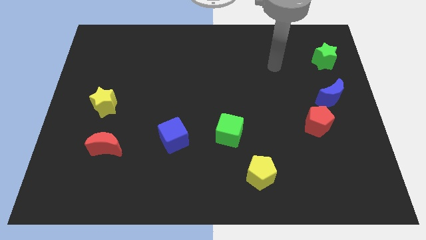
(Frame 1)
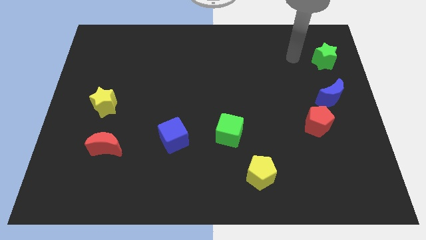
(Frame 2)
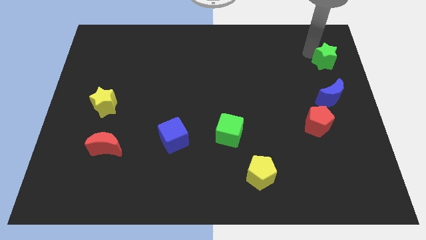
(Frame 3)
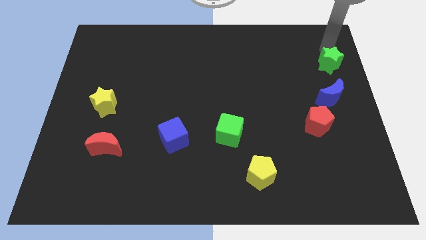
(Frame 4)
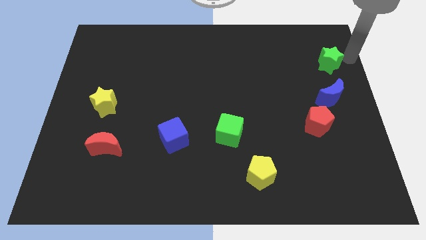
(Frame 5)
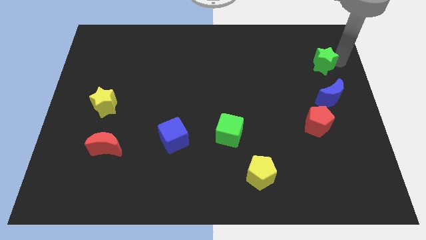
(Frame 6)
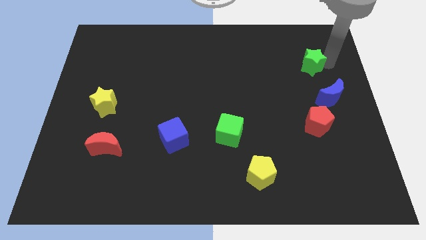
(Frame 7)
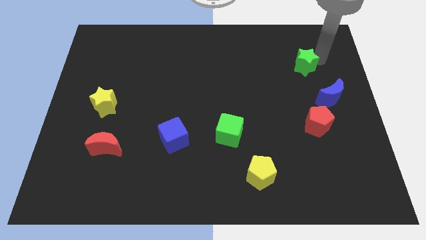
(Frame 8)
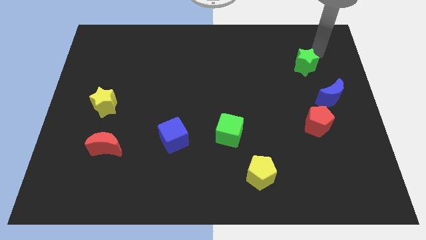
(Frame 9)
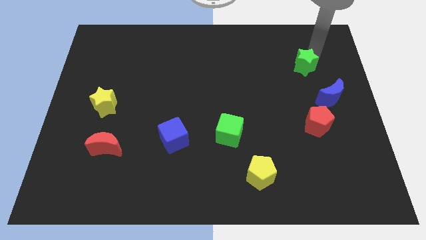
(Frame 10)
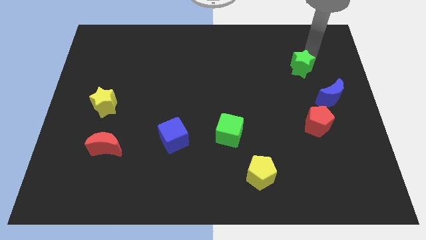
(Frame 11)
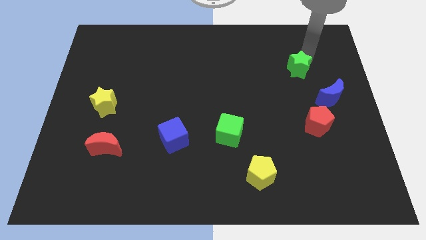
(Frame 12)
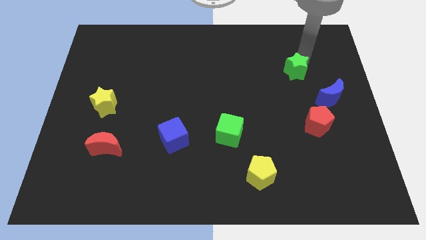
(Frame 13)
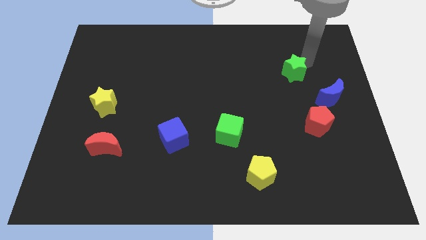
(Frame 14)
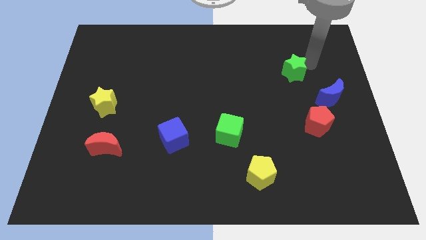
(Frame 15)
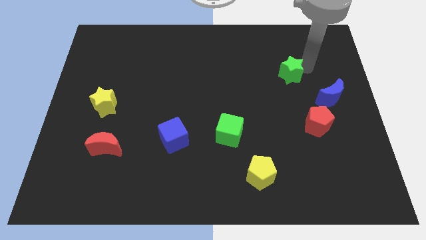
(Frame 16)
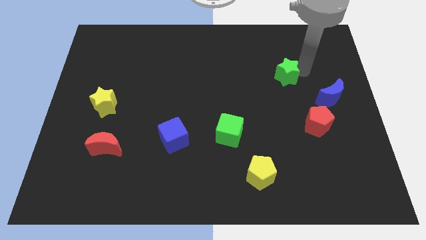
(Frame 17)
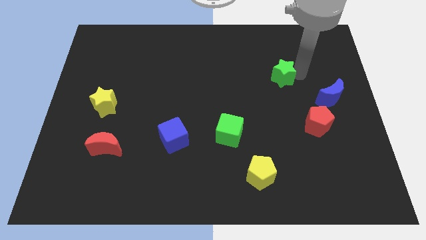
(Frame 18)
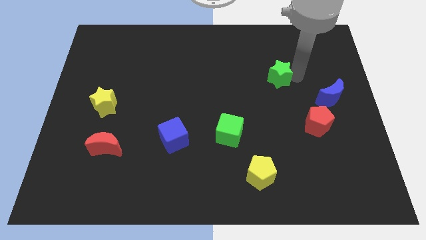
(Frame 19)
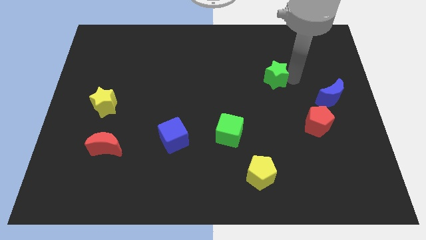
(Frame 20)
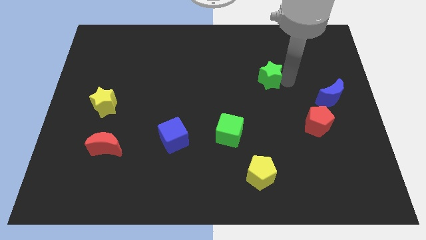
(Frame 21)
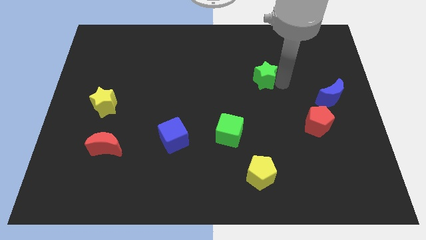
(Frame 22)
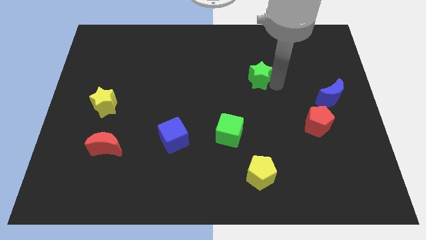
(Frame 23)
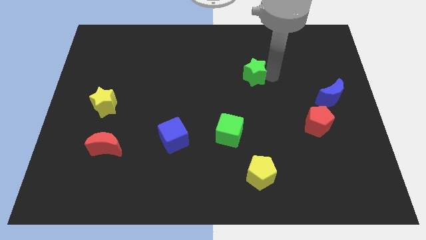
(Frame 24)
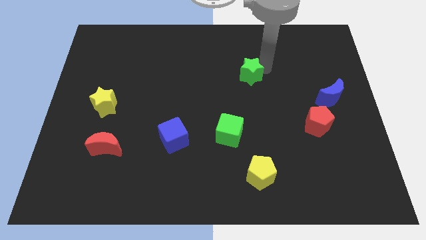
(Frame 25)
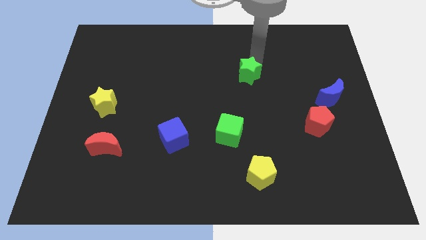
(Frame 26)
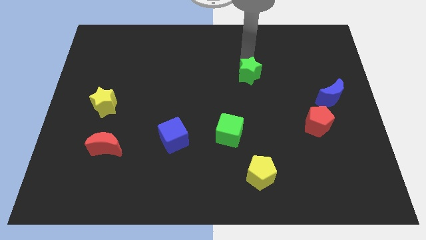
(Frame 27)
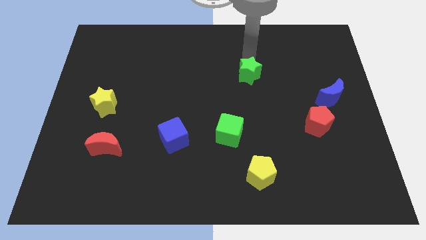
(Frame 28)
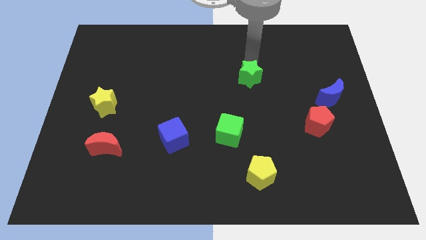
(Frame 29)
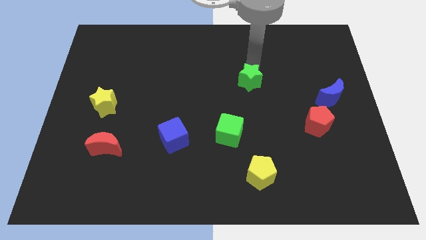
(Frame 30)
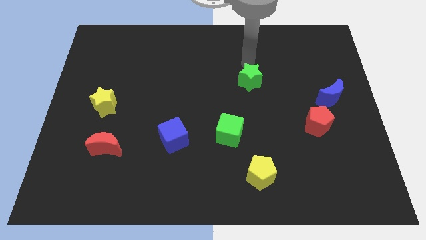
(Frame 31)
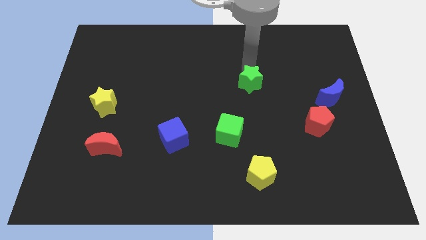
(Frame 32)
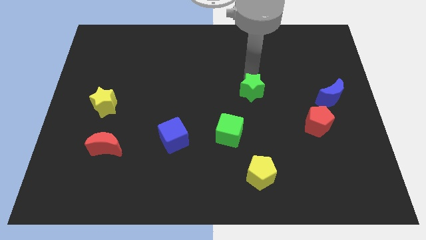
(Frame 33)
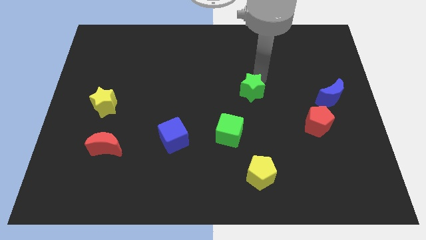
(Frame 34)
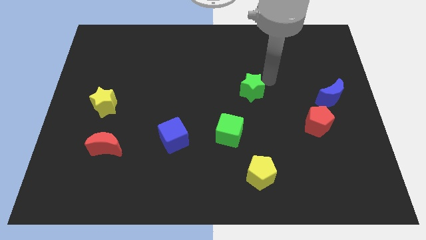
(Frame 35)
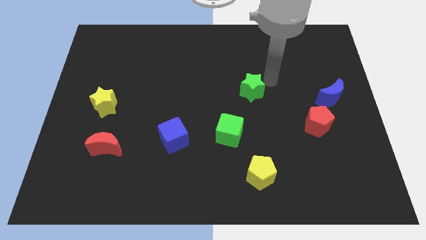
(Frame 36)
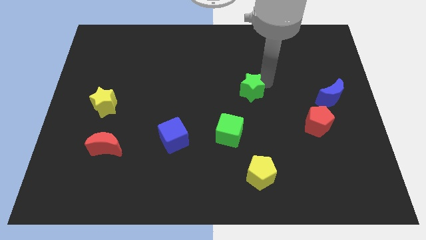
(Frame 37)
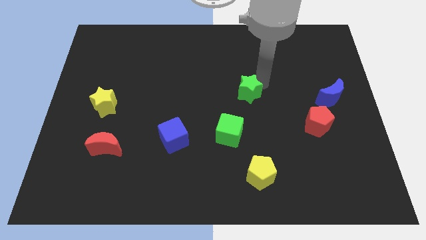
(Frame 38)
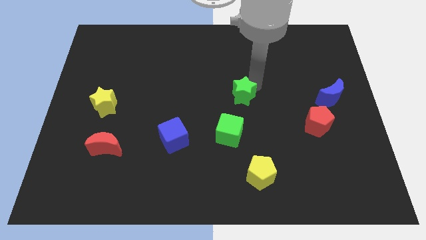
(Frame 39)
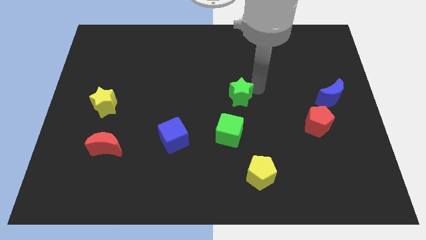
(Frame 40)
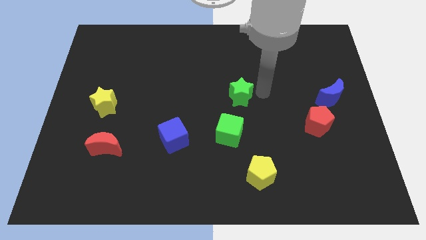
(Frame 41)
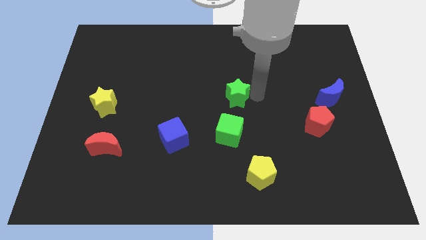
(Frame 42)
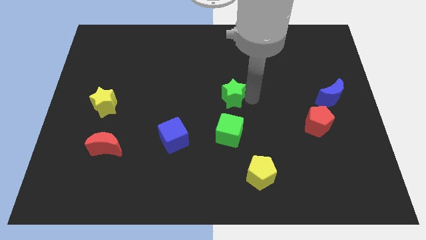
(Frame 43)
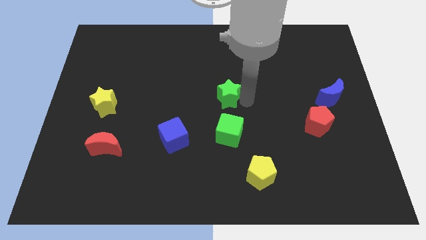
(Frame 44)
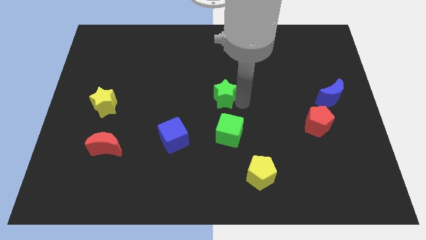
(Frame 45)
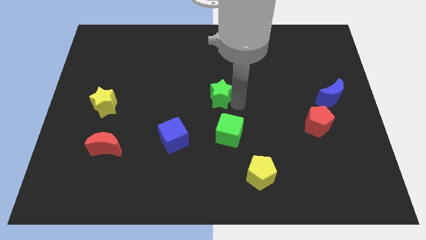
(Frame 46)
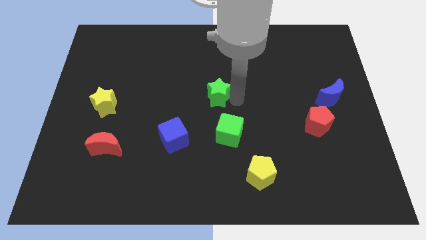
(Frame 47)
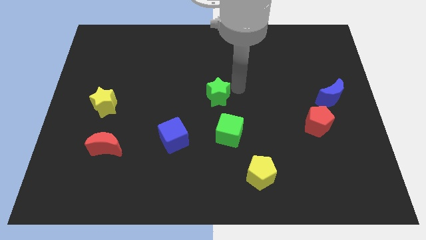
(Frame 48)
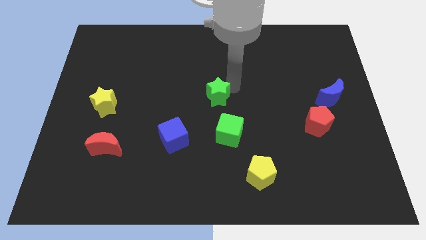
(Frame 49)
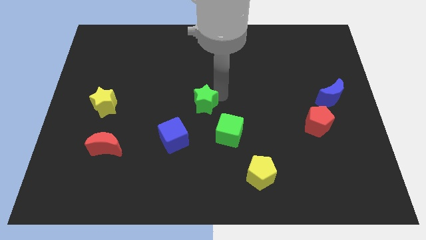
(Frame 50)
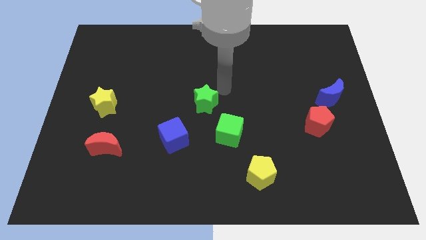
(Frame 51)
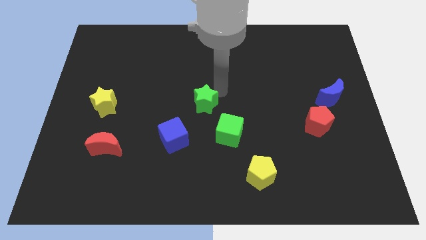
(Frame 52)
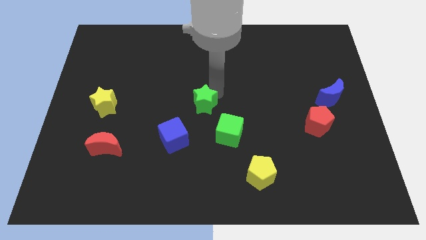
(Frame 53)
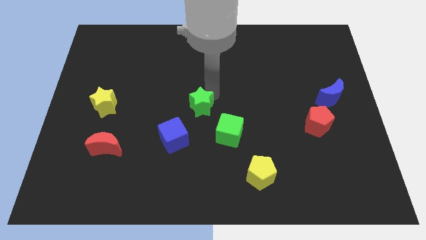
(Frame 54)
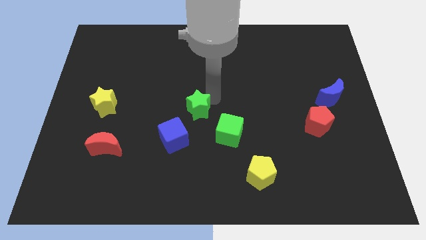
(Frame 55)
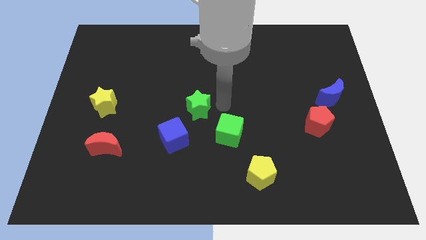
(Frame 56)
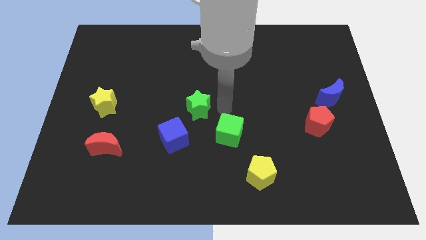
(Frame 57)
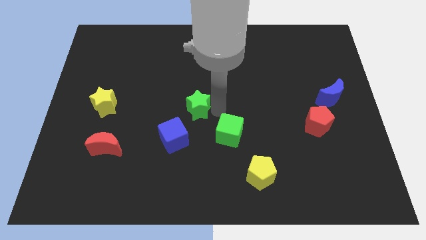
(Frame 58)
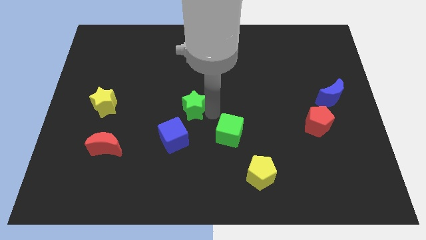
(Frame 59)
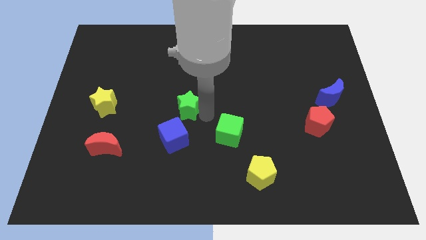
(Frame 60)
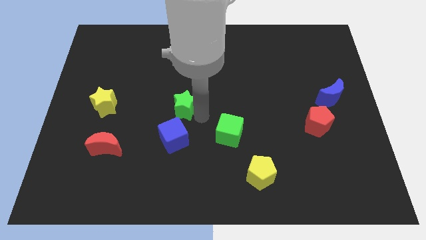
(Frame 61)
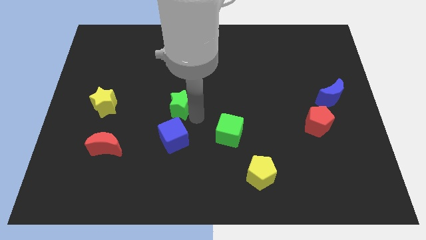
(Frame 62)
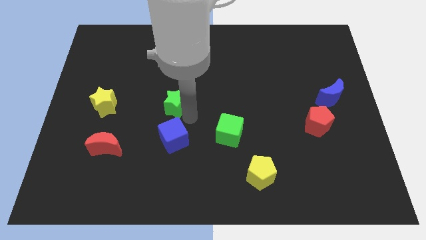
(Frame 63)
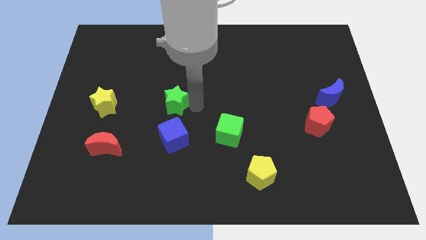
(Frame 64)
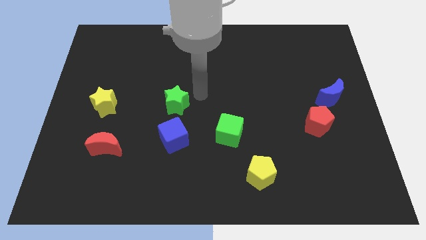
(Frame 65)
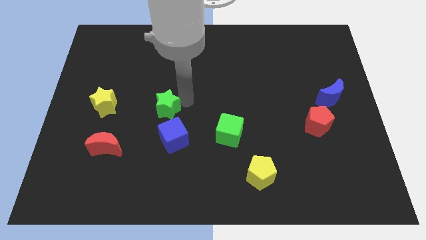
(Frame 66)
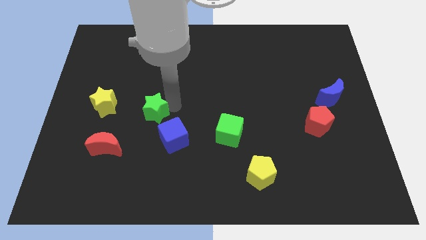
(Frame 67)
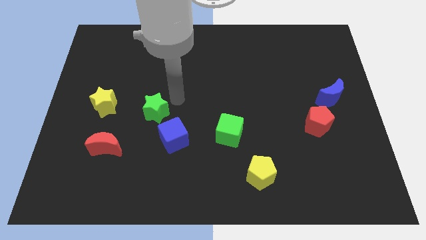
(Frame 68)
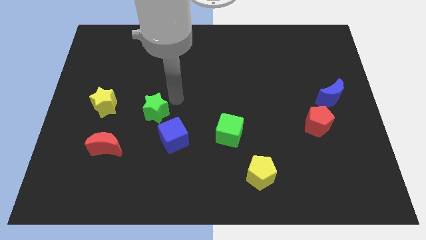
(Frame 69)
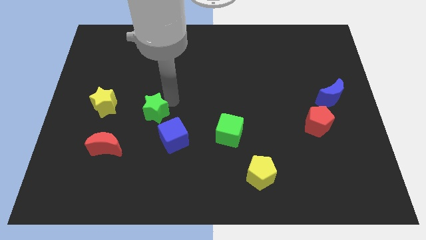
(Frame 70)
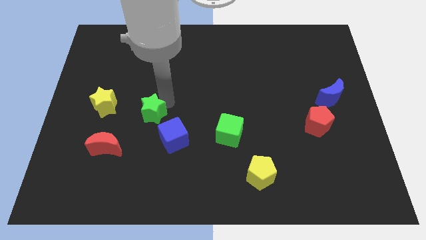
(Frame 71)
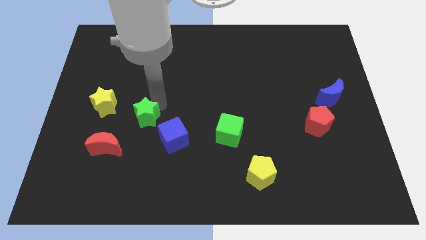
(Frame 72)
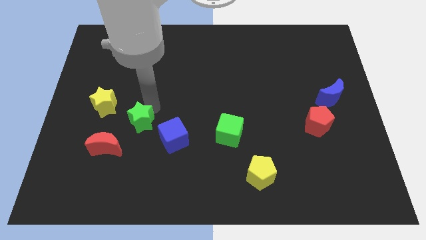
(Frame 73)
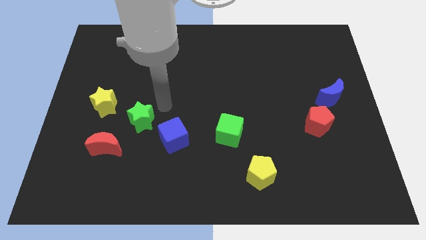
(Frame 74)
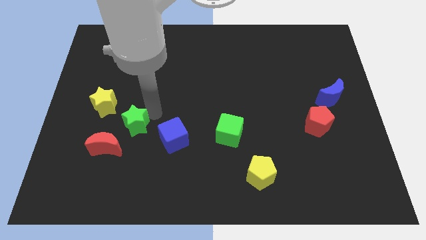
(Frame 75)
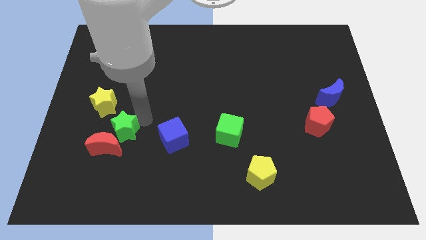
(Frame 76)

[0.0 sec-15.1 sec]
push the green star towards the red moon
